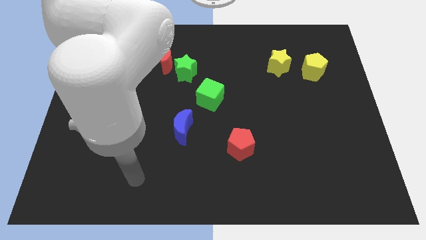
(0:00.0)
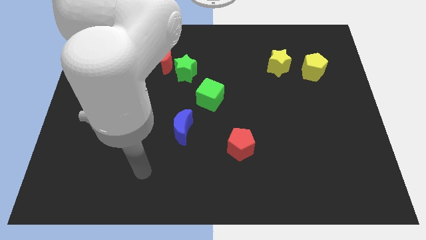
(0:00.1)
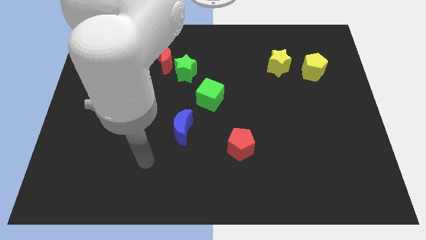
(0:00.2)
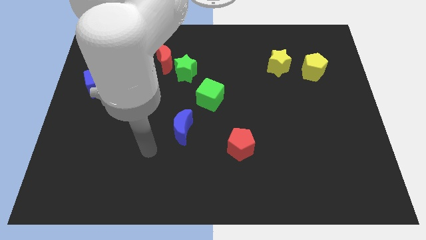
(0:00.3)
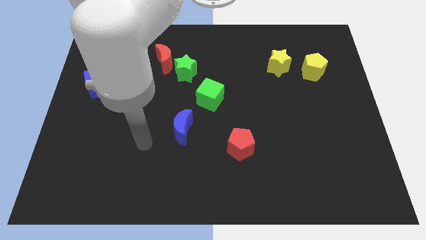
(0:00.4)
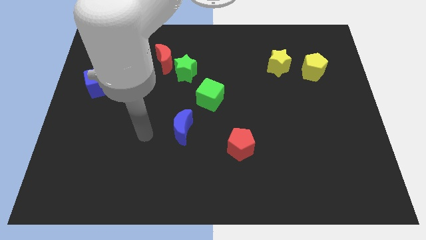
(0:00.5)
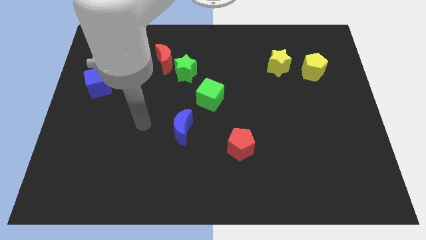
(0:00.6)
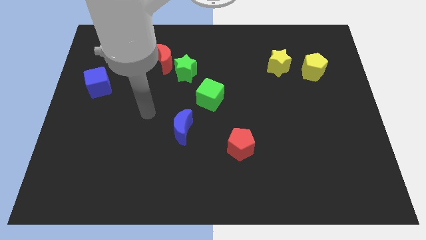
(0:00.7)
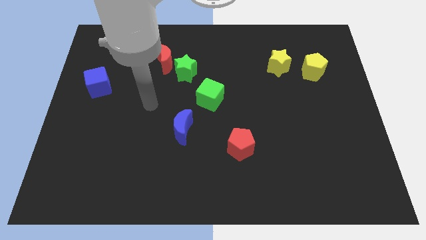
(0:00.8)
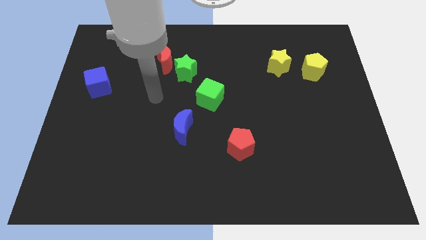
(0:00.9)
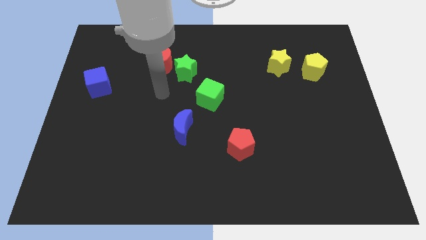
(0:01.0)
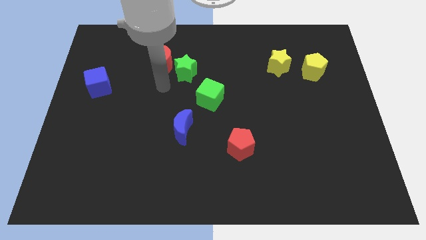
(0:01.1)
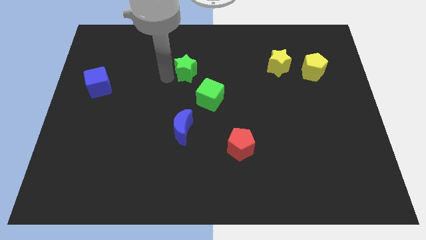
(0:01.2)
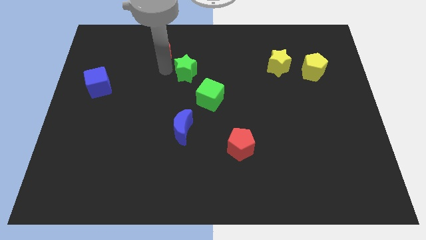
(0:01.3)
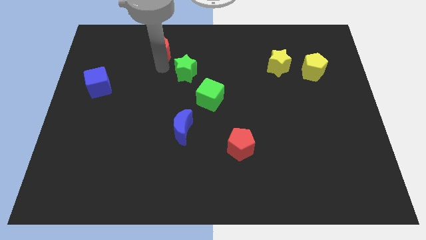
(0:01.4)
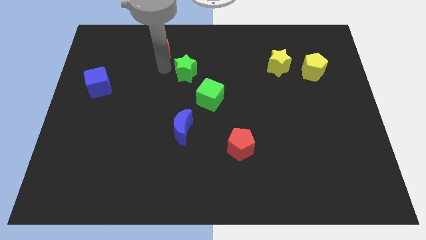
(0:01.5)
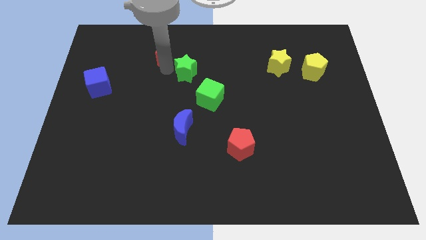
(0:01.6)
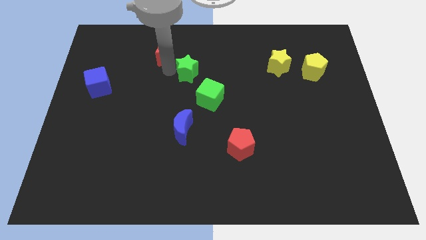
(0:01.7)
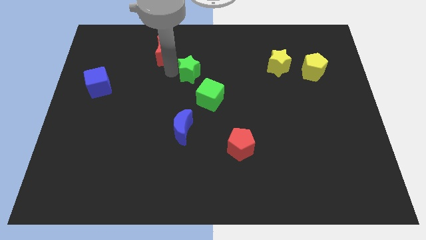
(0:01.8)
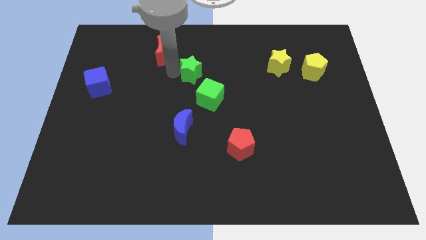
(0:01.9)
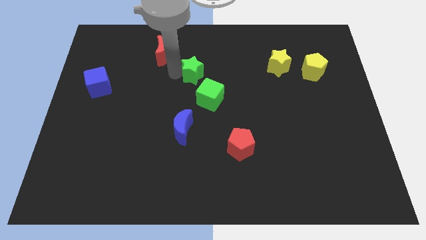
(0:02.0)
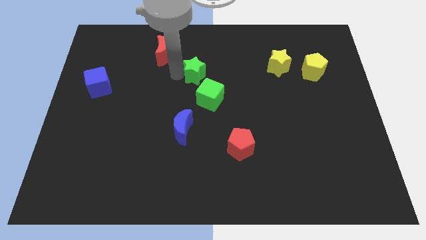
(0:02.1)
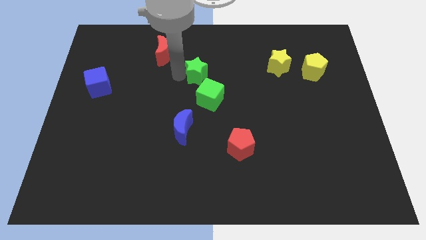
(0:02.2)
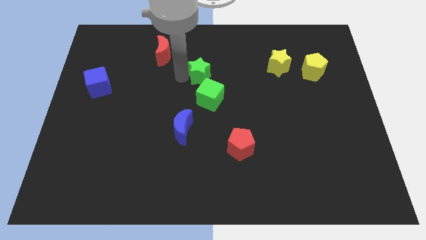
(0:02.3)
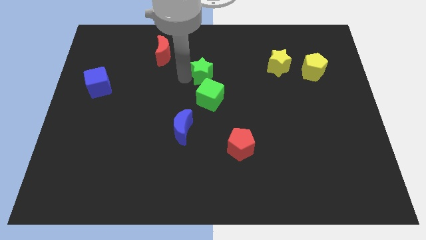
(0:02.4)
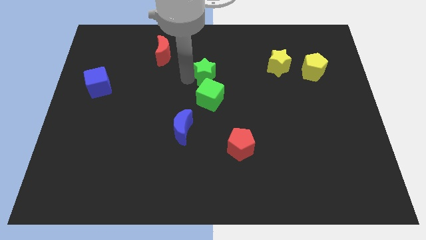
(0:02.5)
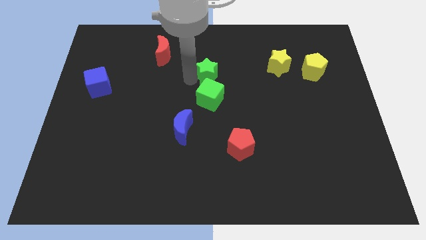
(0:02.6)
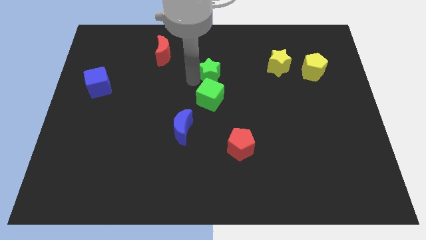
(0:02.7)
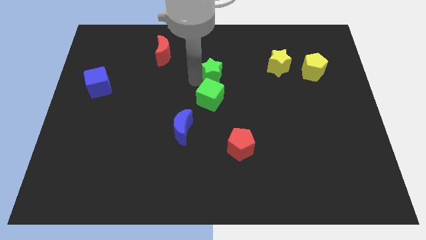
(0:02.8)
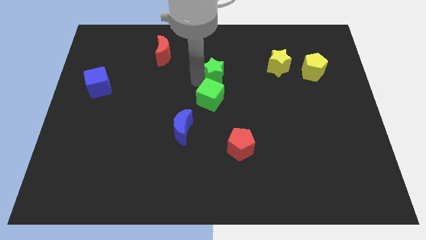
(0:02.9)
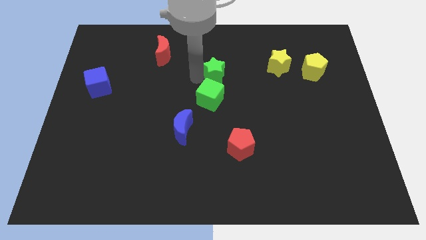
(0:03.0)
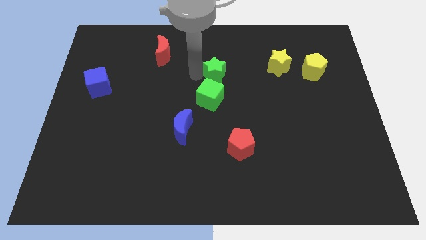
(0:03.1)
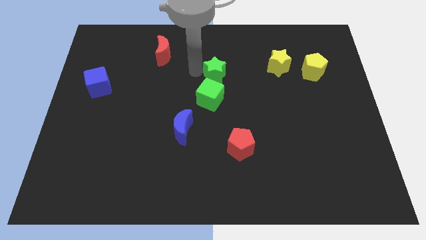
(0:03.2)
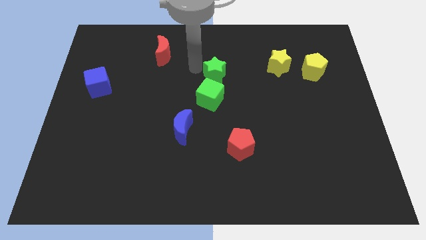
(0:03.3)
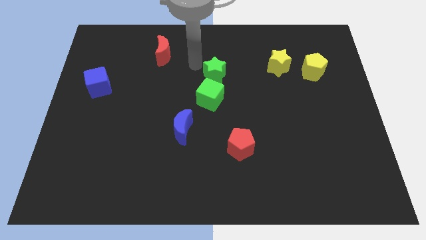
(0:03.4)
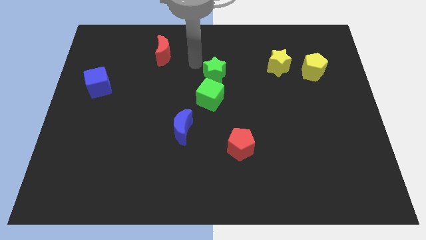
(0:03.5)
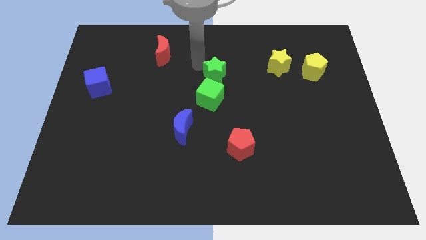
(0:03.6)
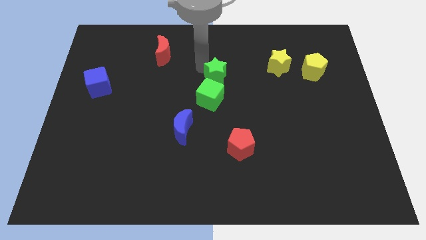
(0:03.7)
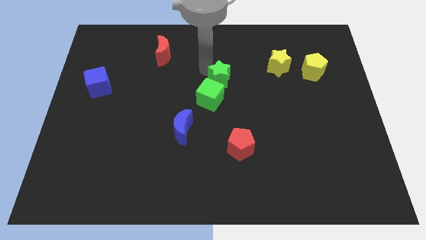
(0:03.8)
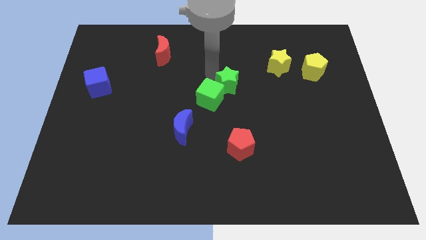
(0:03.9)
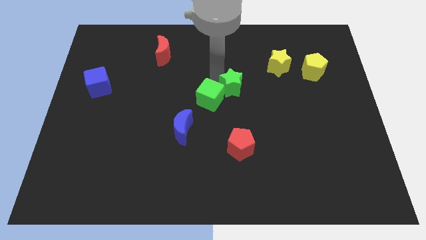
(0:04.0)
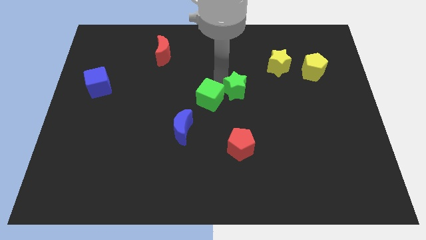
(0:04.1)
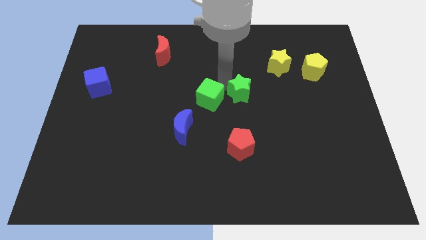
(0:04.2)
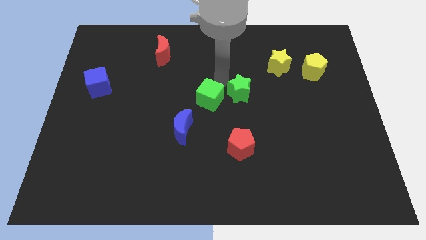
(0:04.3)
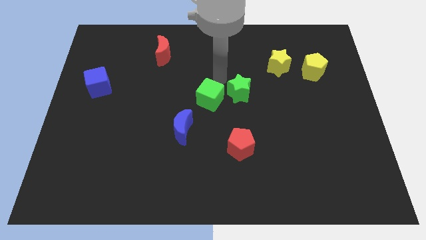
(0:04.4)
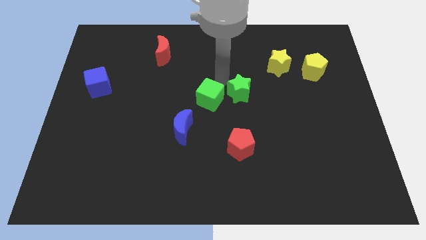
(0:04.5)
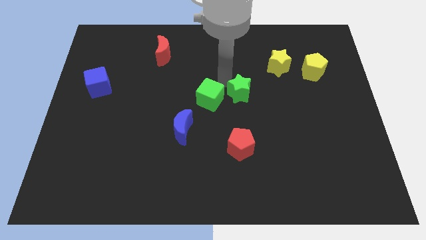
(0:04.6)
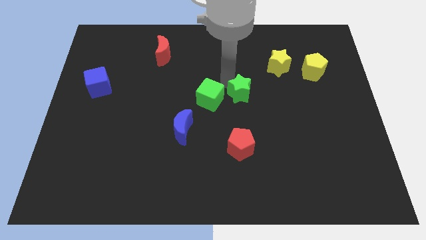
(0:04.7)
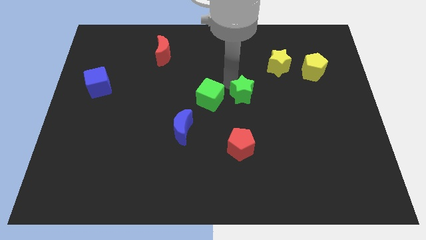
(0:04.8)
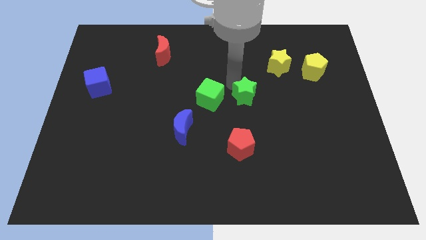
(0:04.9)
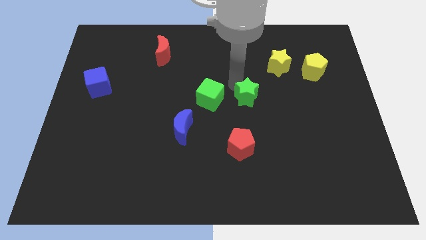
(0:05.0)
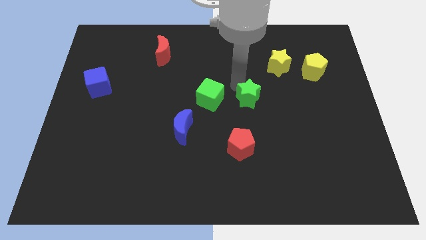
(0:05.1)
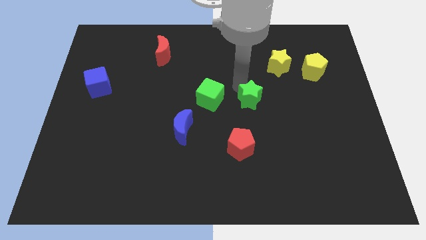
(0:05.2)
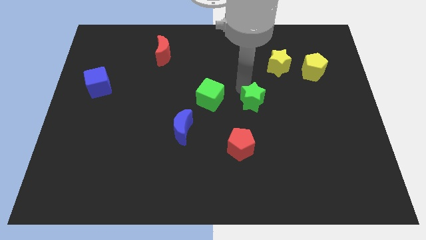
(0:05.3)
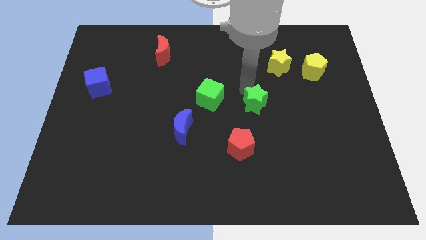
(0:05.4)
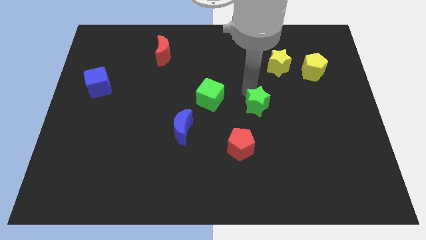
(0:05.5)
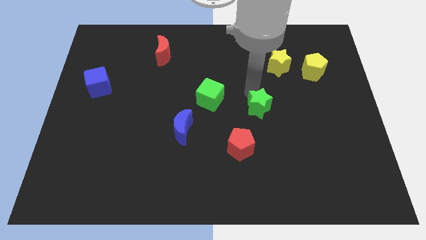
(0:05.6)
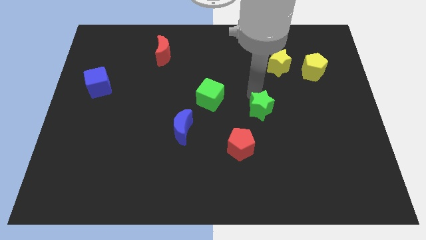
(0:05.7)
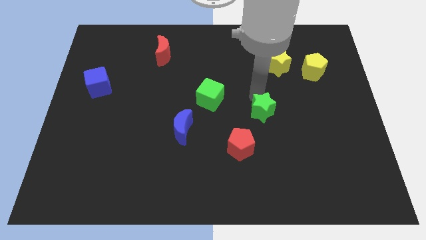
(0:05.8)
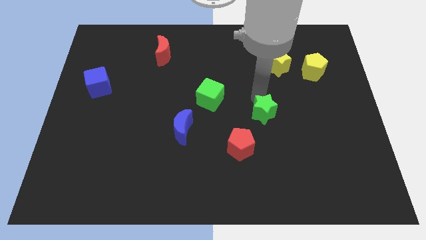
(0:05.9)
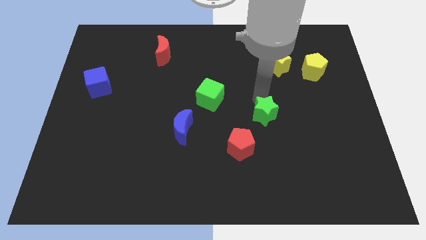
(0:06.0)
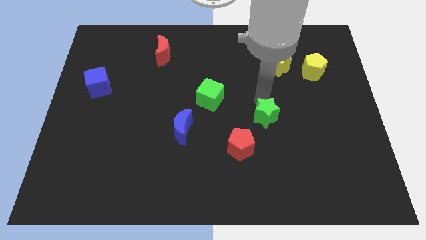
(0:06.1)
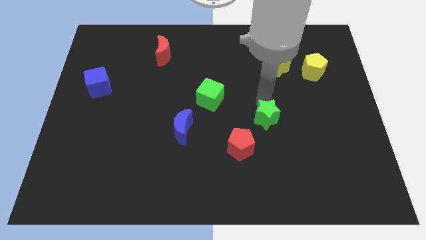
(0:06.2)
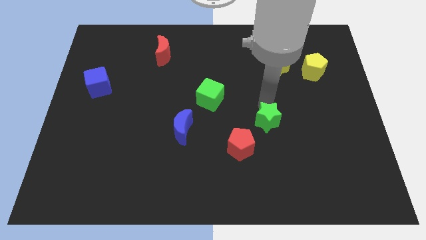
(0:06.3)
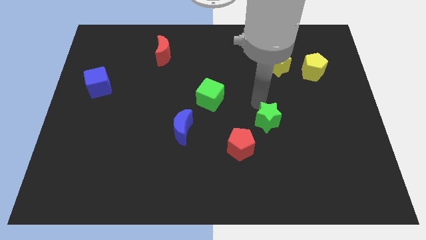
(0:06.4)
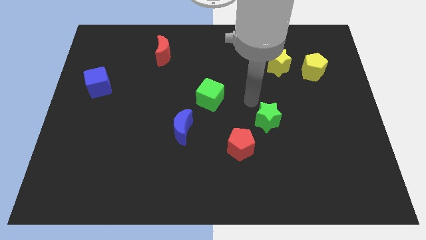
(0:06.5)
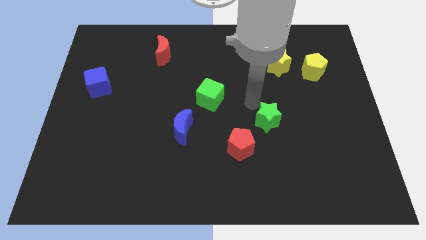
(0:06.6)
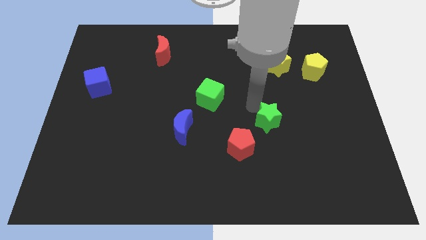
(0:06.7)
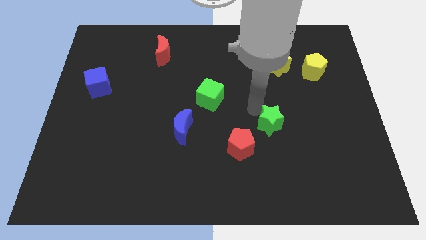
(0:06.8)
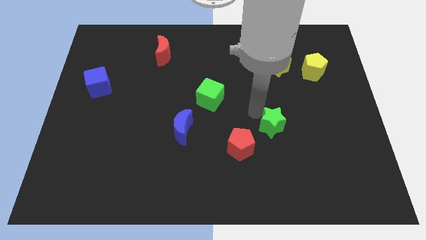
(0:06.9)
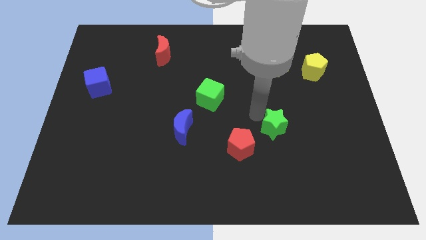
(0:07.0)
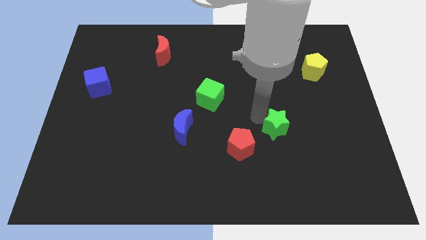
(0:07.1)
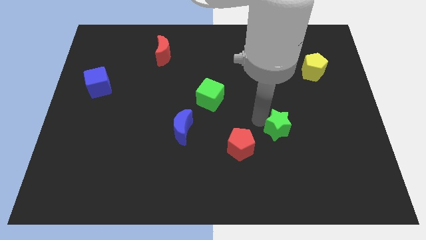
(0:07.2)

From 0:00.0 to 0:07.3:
move the green star to the right side of the red pentagon
